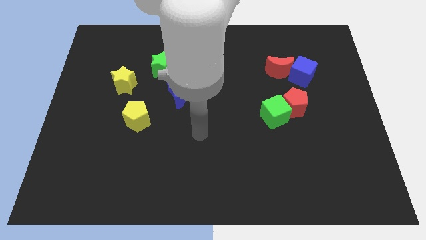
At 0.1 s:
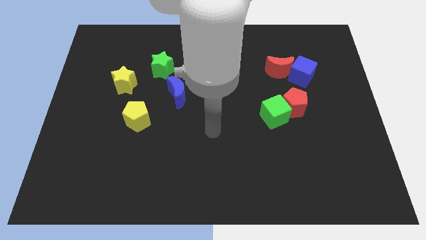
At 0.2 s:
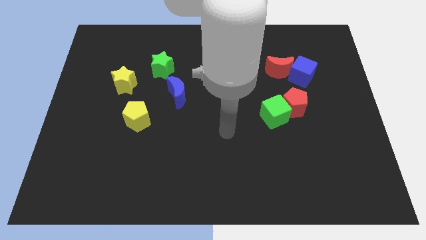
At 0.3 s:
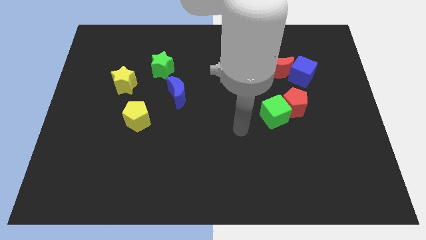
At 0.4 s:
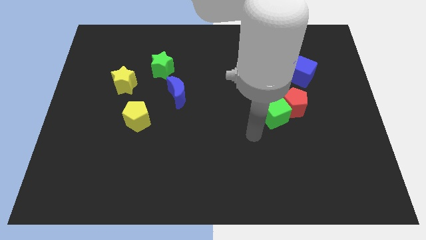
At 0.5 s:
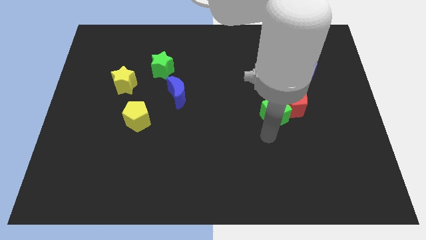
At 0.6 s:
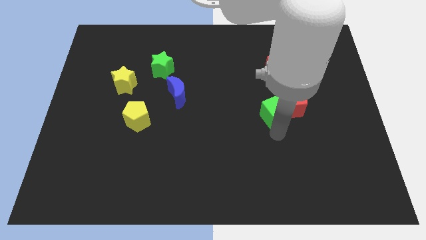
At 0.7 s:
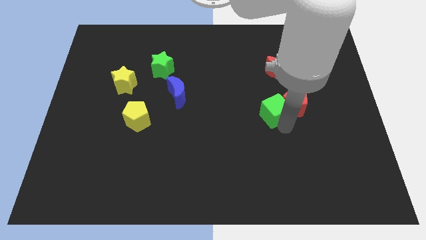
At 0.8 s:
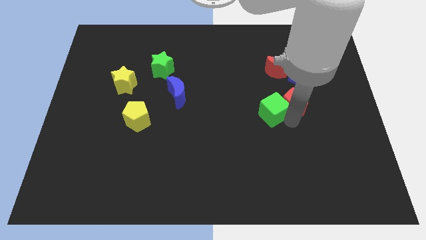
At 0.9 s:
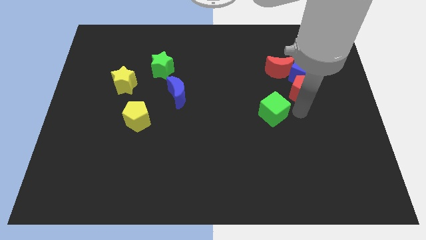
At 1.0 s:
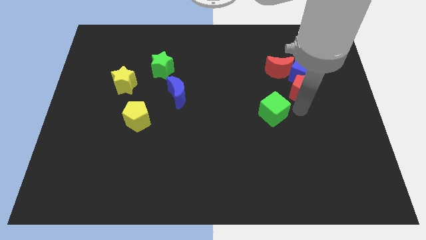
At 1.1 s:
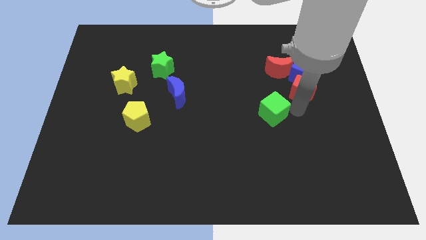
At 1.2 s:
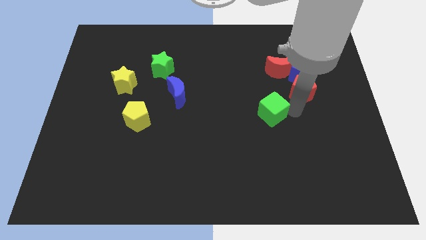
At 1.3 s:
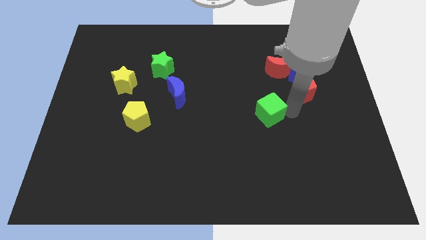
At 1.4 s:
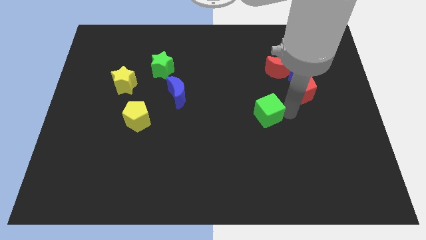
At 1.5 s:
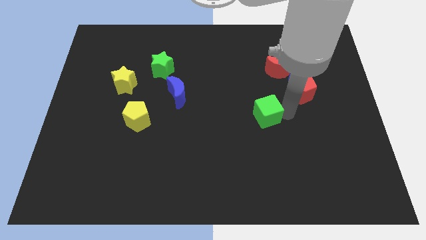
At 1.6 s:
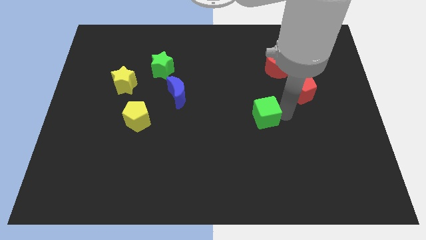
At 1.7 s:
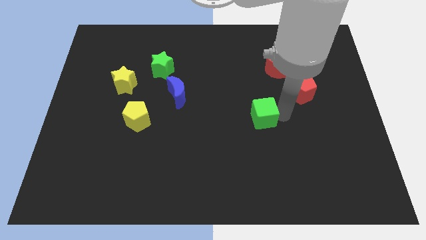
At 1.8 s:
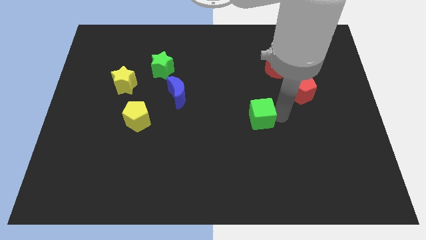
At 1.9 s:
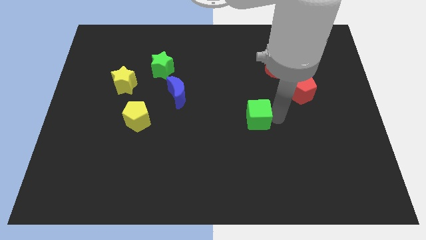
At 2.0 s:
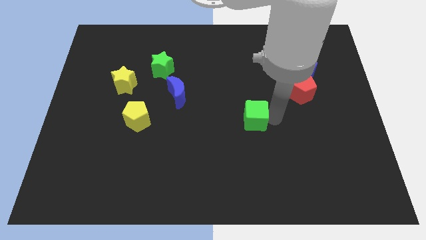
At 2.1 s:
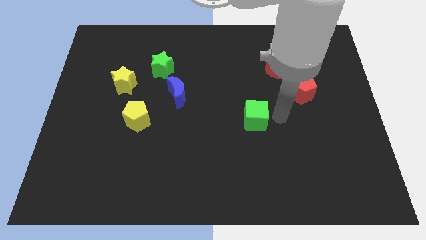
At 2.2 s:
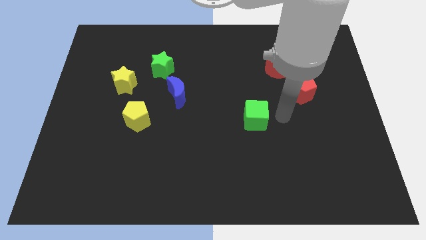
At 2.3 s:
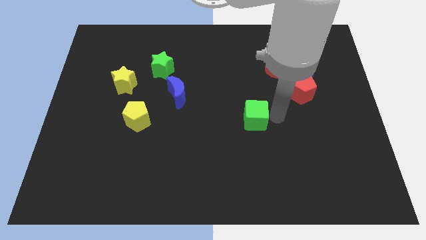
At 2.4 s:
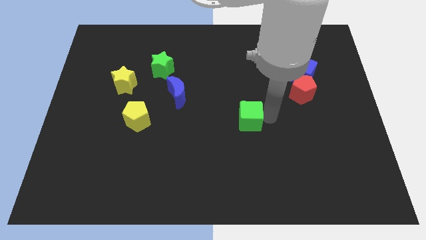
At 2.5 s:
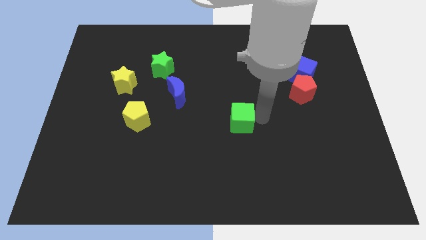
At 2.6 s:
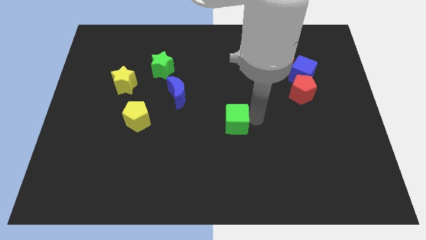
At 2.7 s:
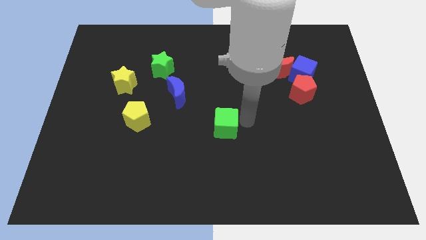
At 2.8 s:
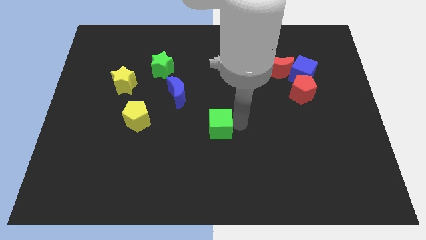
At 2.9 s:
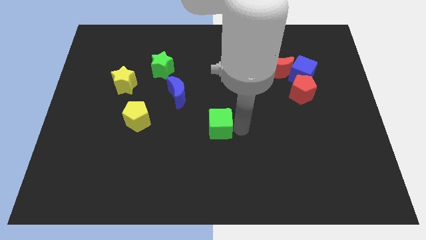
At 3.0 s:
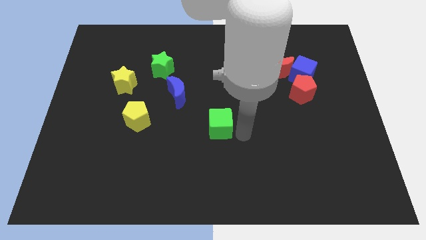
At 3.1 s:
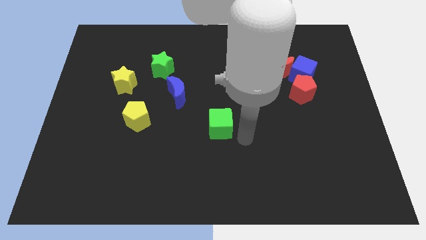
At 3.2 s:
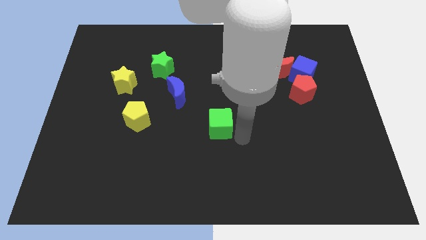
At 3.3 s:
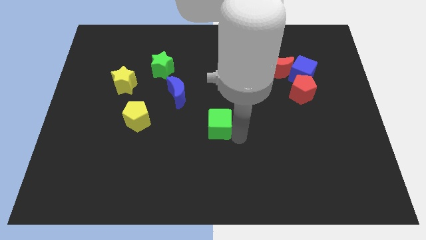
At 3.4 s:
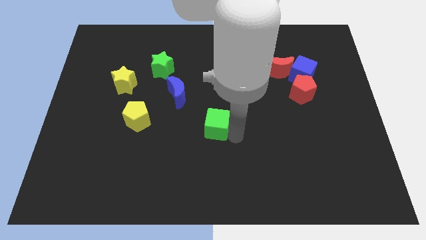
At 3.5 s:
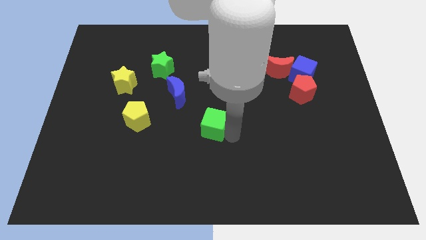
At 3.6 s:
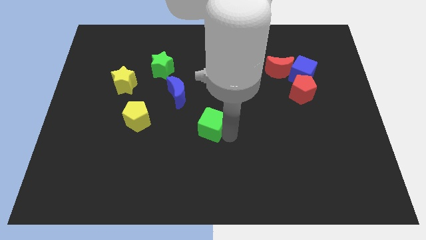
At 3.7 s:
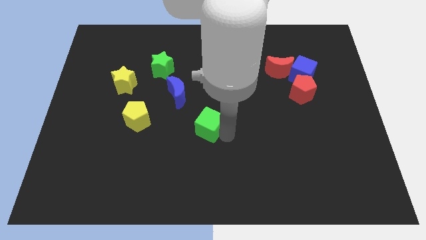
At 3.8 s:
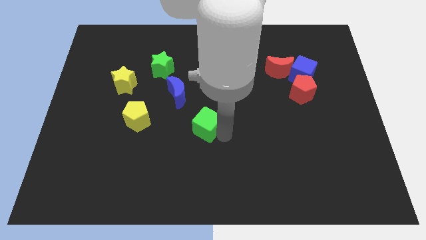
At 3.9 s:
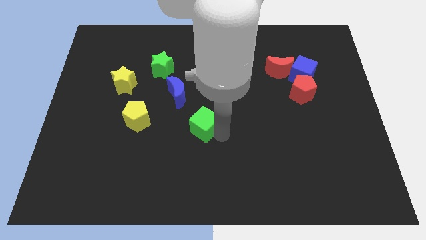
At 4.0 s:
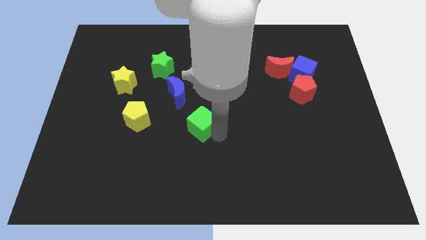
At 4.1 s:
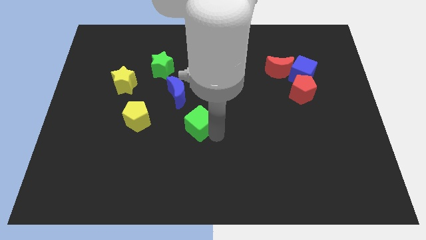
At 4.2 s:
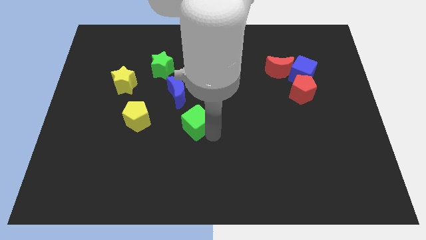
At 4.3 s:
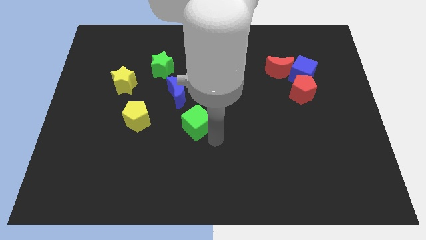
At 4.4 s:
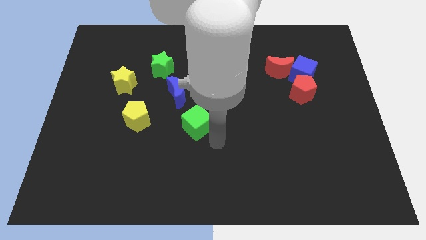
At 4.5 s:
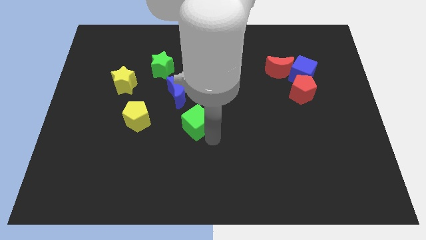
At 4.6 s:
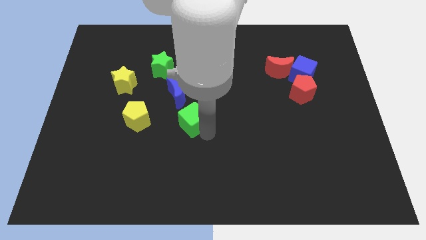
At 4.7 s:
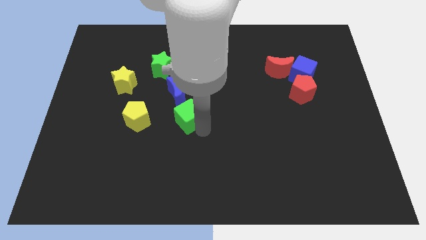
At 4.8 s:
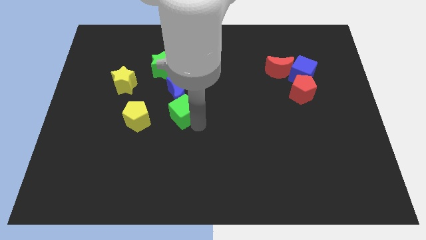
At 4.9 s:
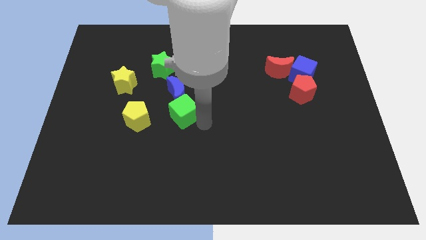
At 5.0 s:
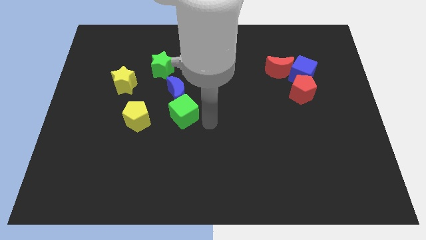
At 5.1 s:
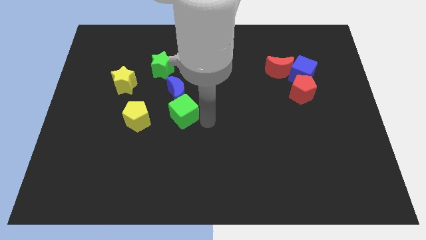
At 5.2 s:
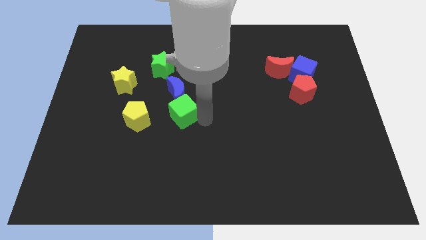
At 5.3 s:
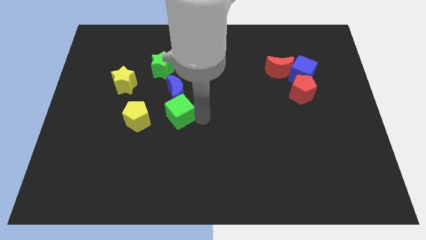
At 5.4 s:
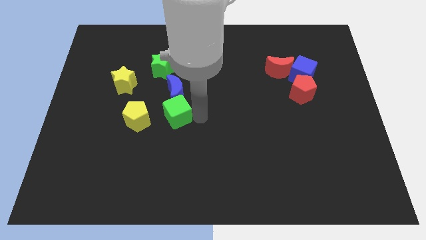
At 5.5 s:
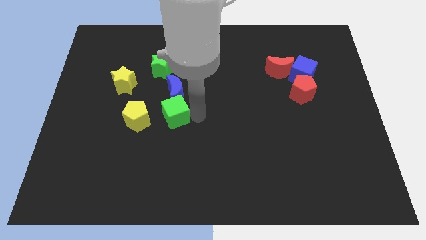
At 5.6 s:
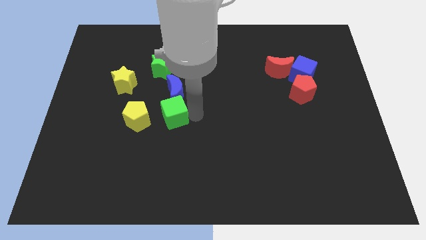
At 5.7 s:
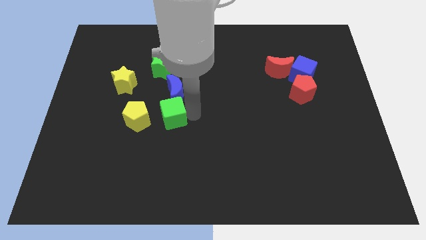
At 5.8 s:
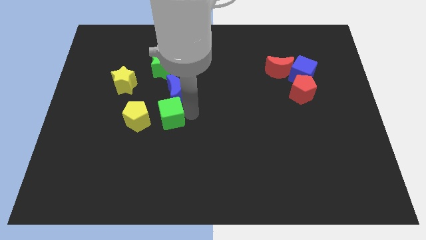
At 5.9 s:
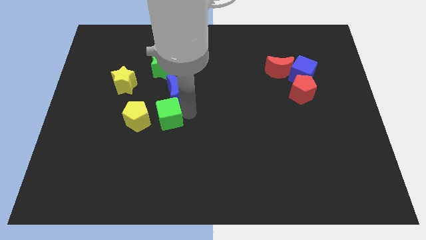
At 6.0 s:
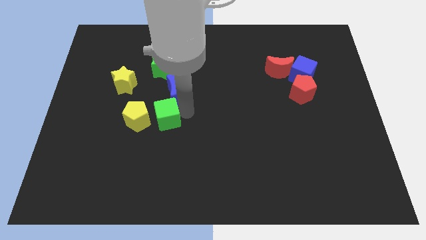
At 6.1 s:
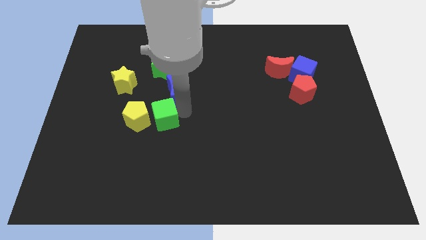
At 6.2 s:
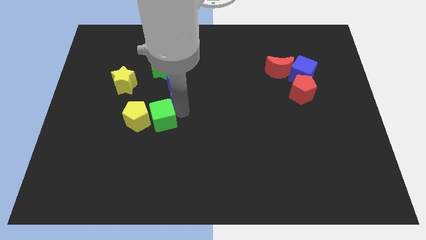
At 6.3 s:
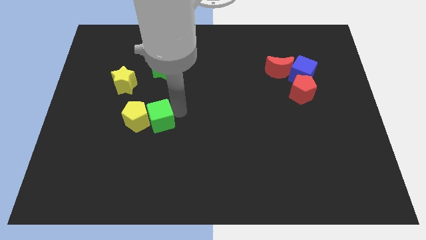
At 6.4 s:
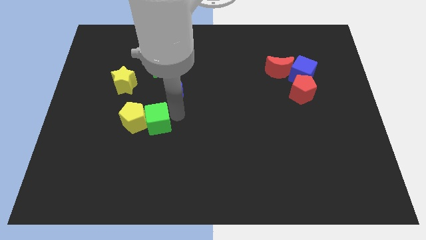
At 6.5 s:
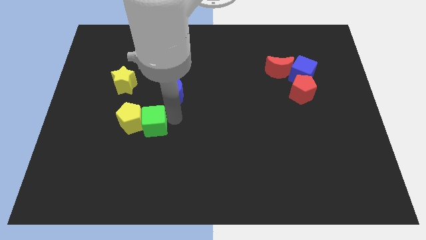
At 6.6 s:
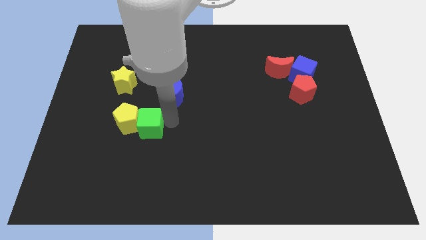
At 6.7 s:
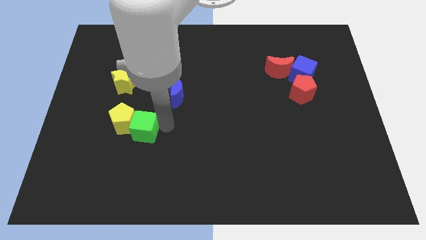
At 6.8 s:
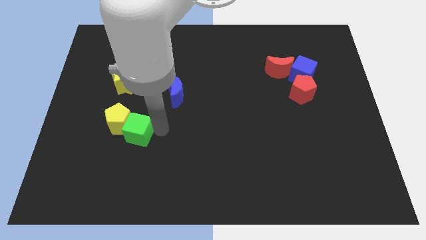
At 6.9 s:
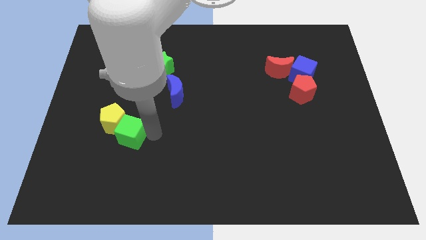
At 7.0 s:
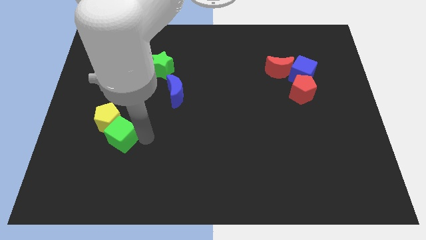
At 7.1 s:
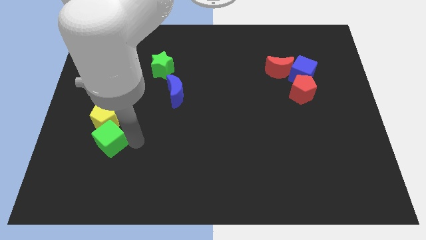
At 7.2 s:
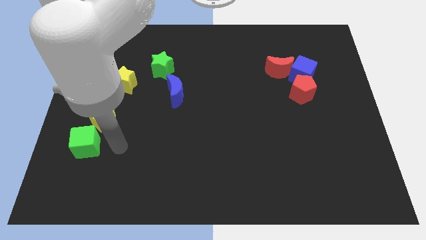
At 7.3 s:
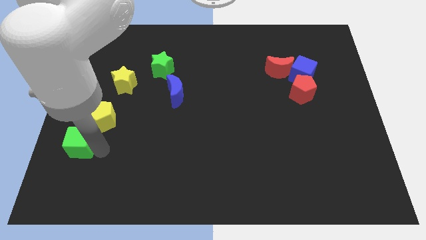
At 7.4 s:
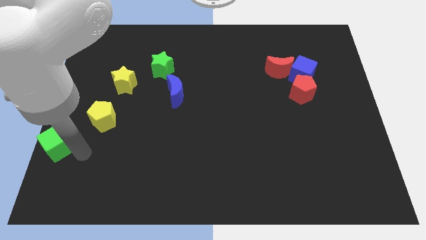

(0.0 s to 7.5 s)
slide the green cube to the left side of the board
